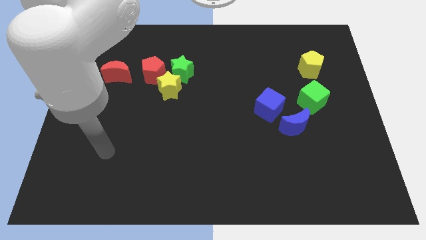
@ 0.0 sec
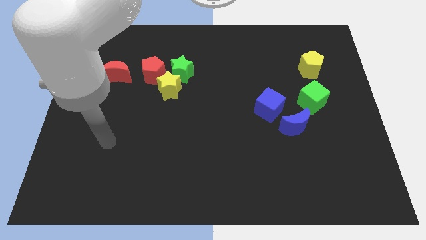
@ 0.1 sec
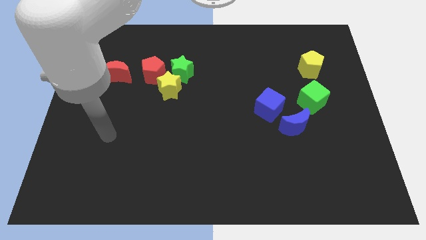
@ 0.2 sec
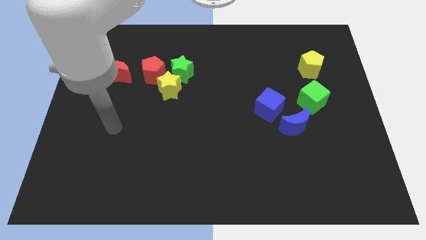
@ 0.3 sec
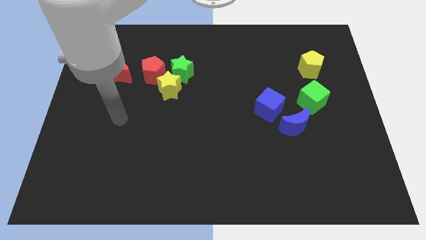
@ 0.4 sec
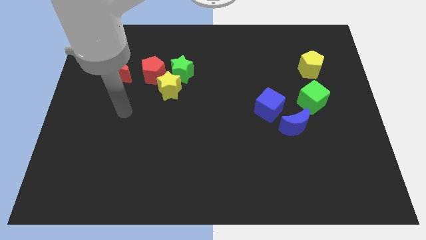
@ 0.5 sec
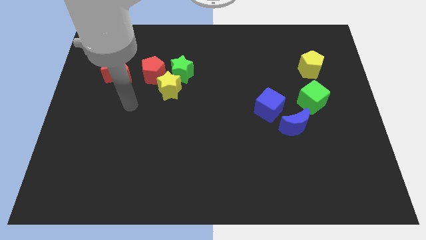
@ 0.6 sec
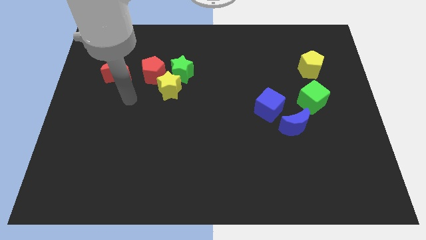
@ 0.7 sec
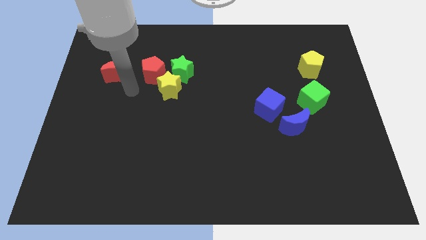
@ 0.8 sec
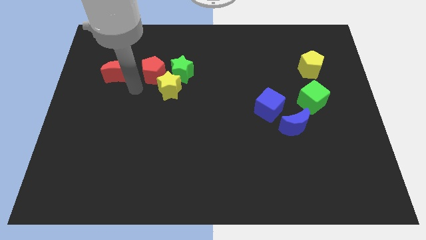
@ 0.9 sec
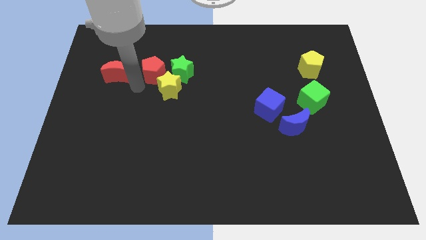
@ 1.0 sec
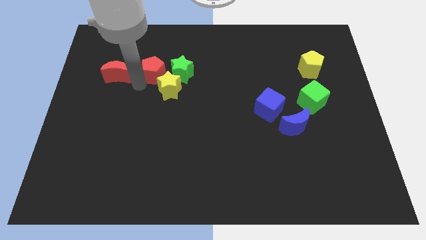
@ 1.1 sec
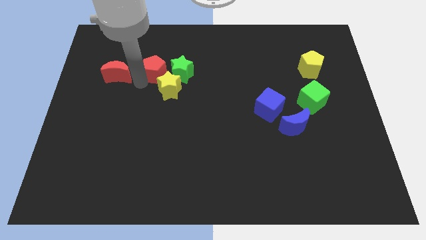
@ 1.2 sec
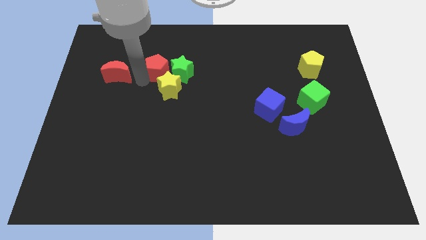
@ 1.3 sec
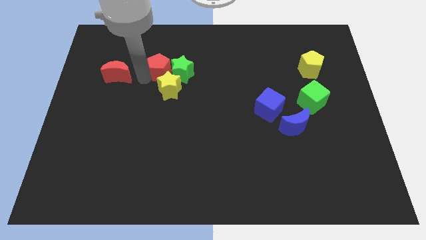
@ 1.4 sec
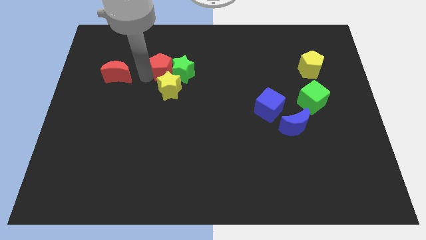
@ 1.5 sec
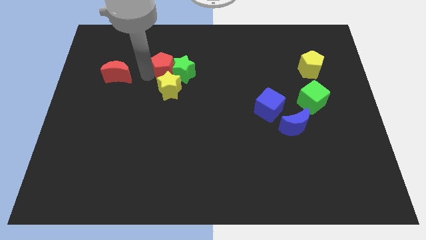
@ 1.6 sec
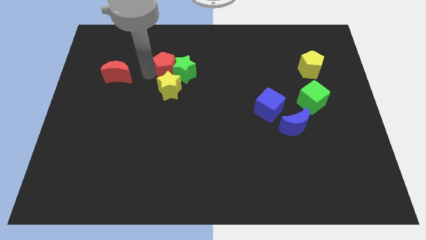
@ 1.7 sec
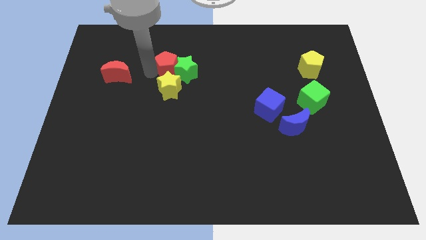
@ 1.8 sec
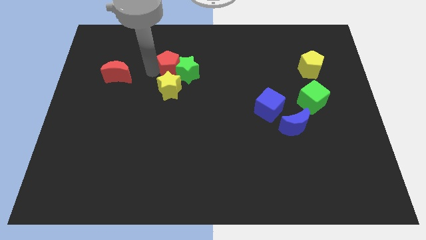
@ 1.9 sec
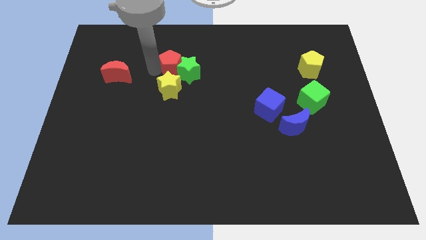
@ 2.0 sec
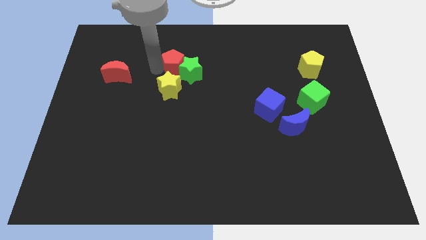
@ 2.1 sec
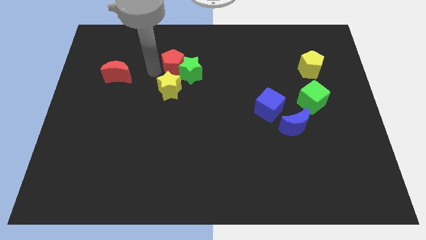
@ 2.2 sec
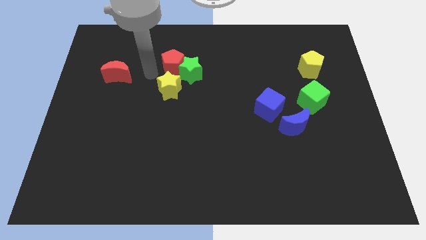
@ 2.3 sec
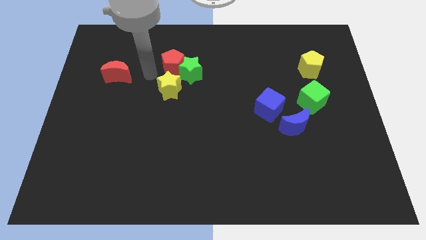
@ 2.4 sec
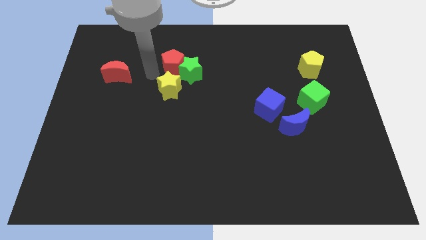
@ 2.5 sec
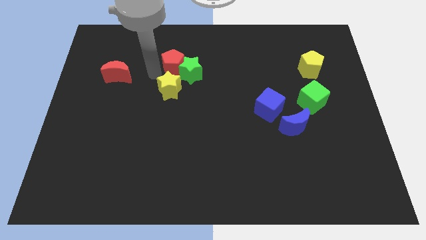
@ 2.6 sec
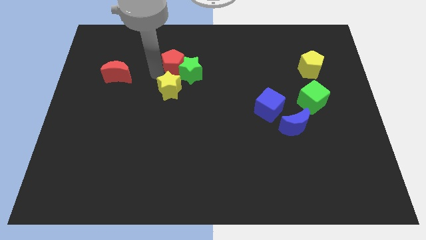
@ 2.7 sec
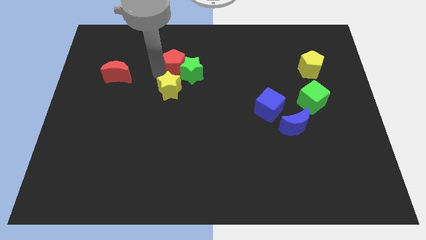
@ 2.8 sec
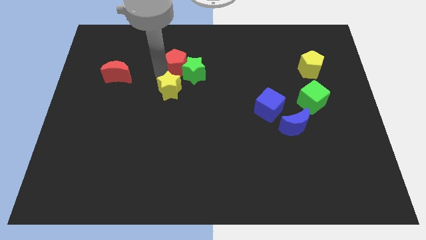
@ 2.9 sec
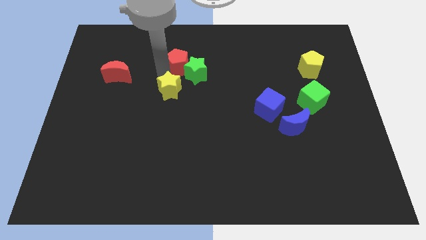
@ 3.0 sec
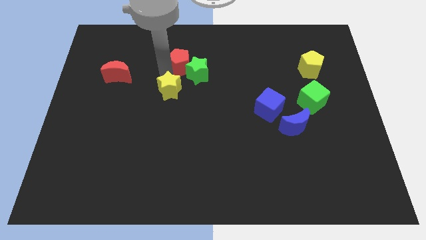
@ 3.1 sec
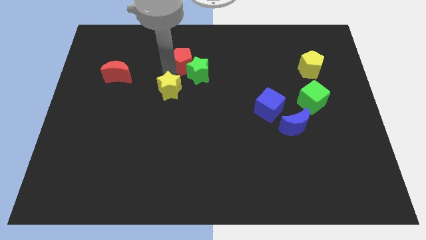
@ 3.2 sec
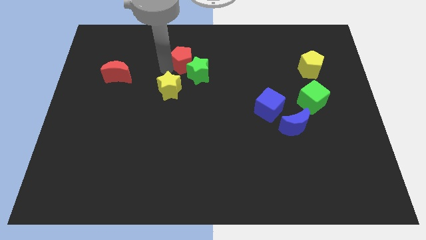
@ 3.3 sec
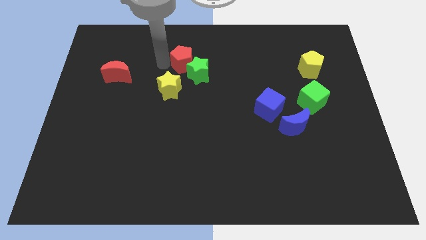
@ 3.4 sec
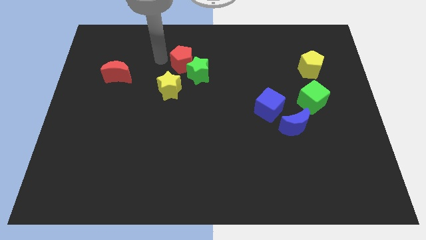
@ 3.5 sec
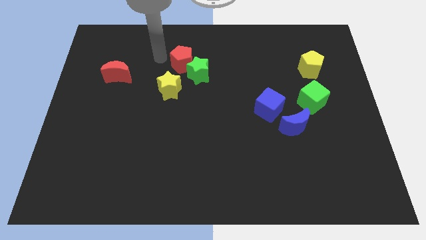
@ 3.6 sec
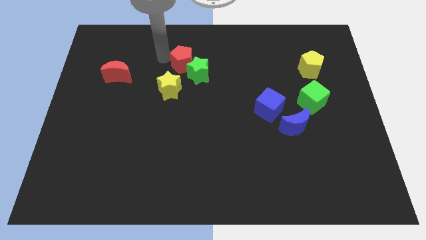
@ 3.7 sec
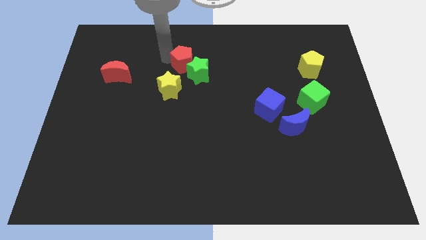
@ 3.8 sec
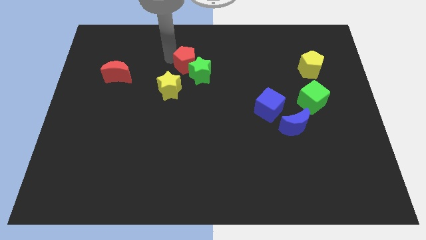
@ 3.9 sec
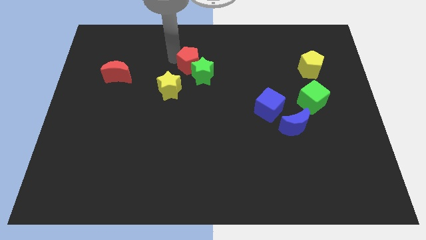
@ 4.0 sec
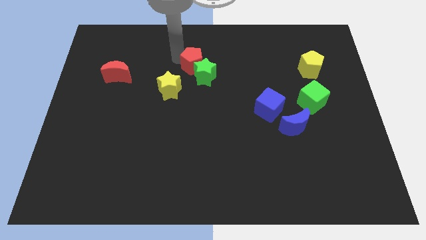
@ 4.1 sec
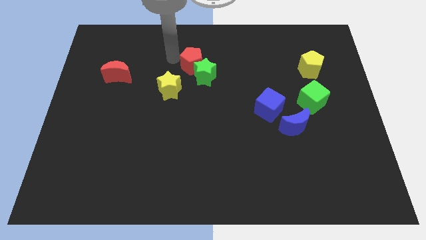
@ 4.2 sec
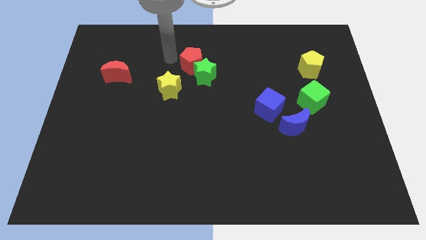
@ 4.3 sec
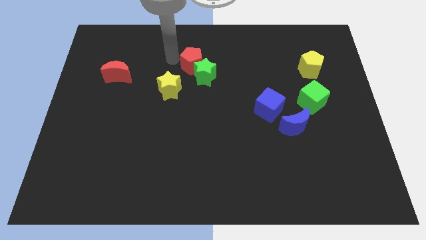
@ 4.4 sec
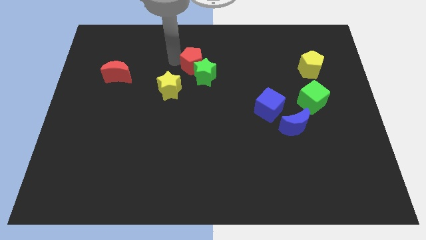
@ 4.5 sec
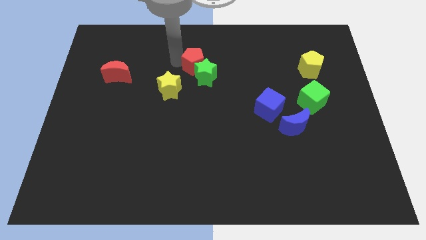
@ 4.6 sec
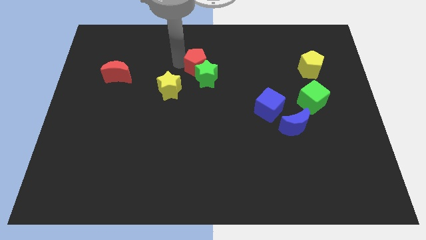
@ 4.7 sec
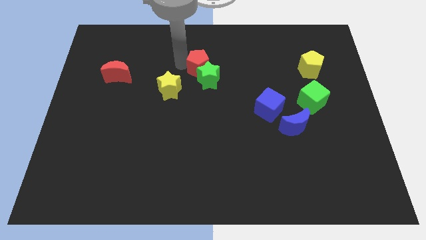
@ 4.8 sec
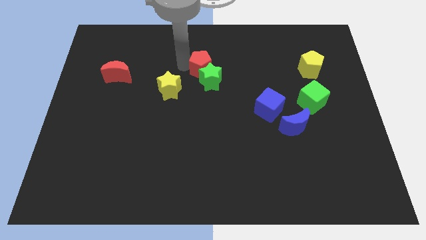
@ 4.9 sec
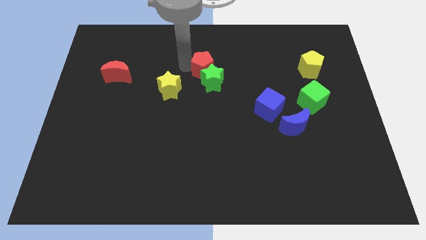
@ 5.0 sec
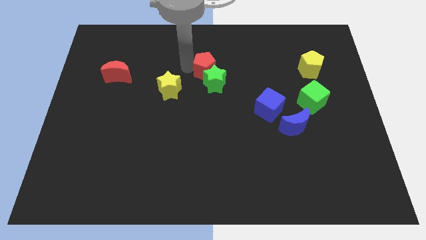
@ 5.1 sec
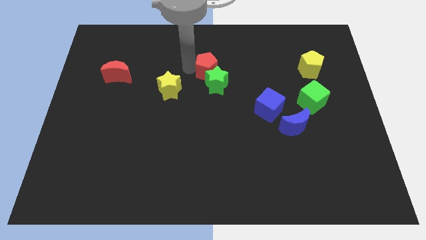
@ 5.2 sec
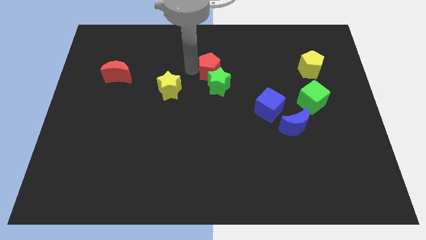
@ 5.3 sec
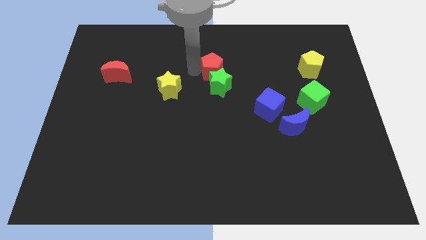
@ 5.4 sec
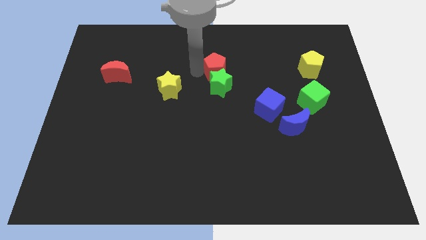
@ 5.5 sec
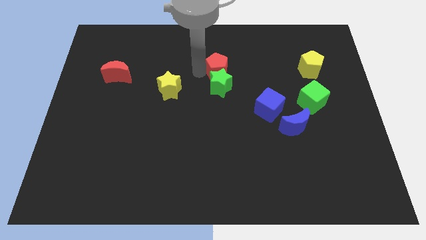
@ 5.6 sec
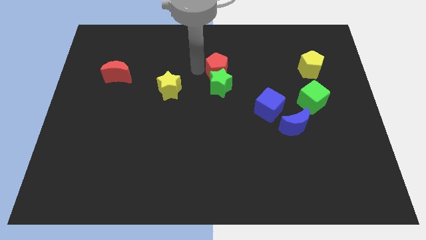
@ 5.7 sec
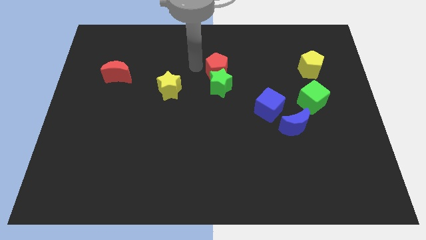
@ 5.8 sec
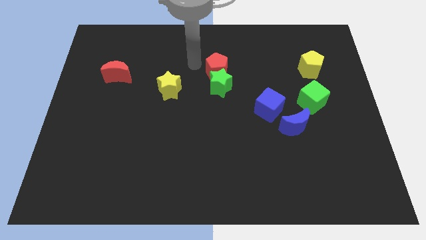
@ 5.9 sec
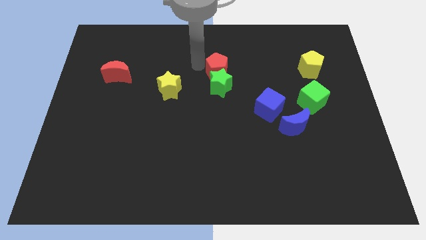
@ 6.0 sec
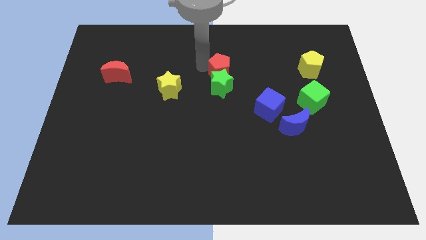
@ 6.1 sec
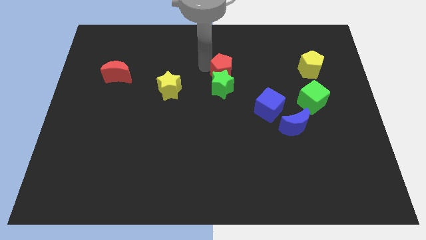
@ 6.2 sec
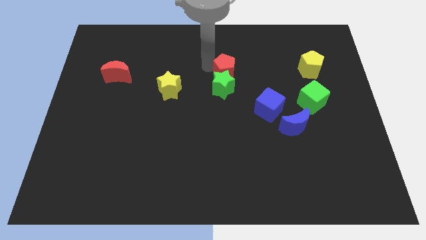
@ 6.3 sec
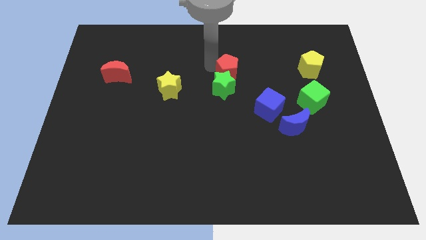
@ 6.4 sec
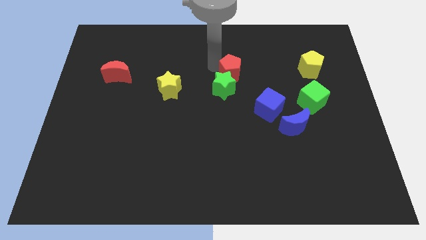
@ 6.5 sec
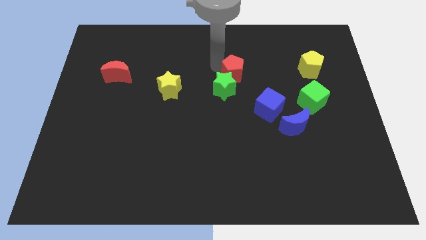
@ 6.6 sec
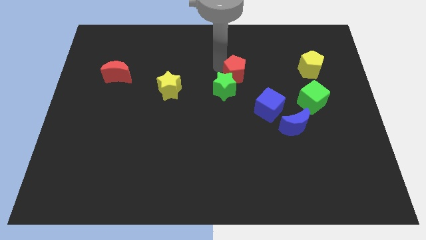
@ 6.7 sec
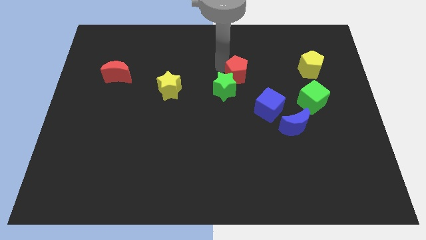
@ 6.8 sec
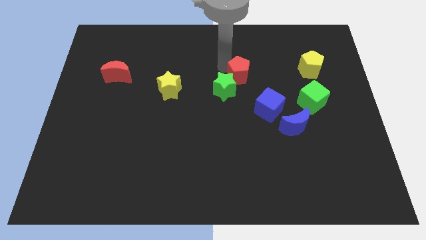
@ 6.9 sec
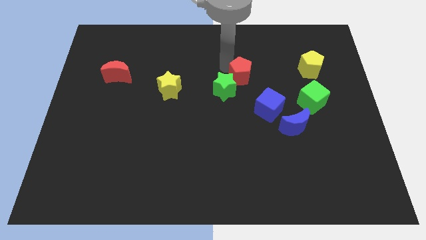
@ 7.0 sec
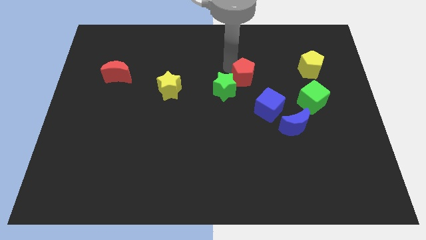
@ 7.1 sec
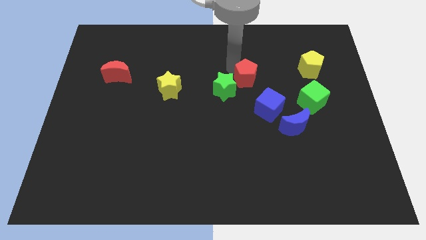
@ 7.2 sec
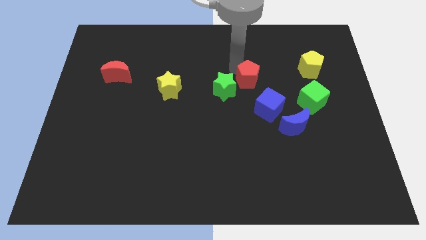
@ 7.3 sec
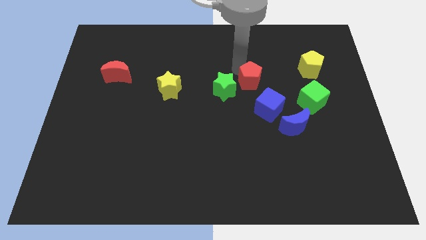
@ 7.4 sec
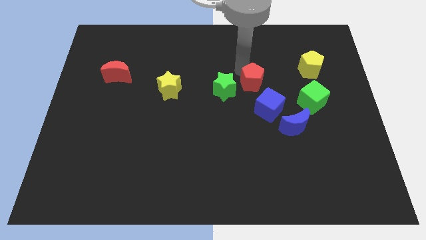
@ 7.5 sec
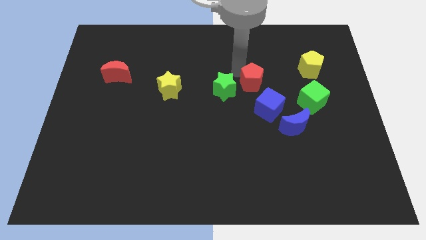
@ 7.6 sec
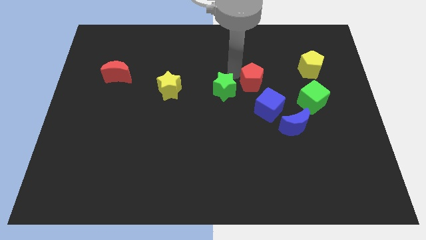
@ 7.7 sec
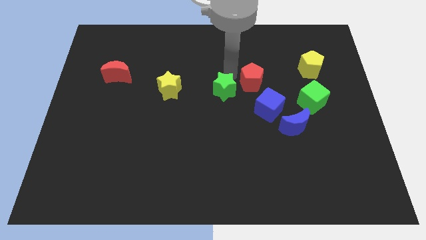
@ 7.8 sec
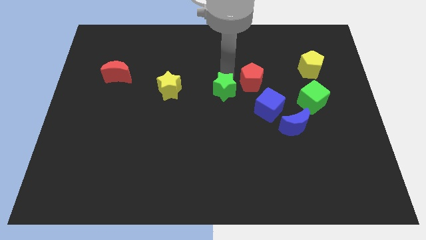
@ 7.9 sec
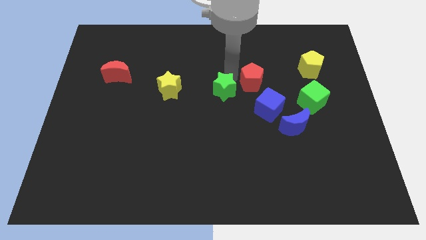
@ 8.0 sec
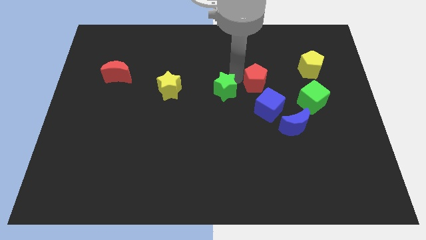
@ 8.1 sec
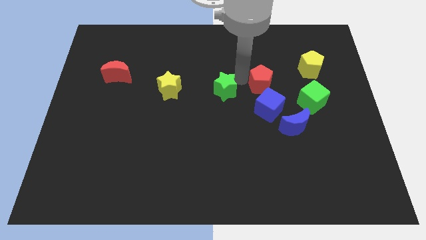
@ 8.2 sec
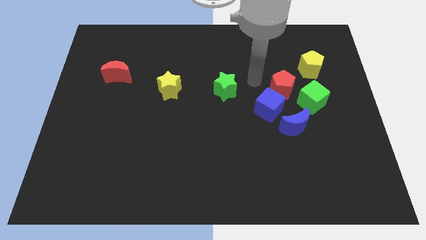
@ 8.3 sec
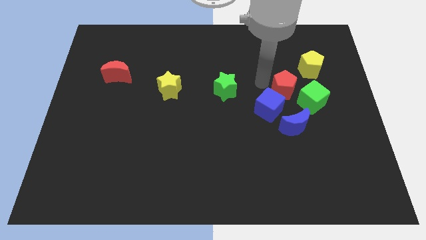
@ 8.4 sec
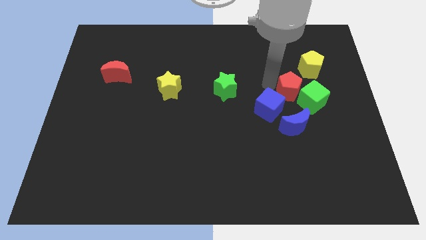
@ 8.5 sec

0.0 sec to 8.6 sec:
push the red pentagon towards the green cube
